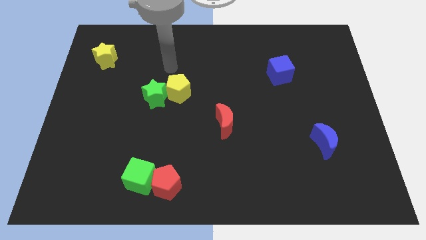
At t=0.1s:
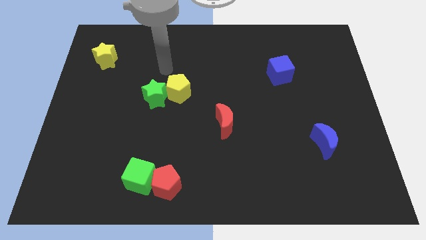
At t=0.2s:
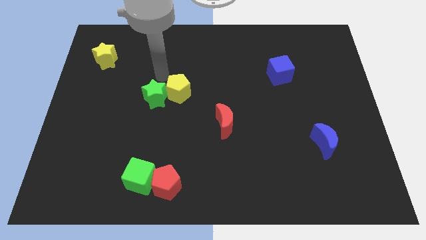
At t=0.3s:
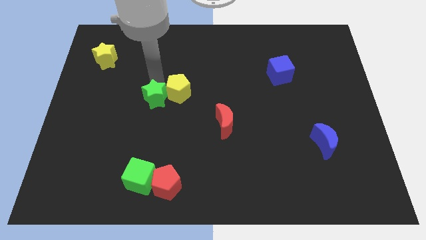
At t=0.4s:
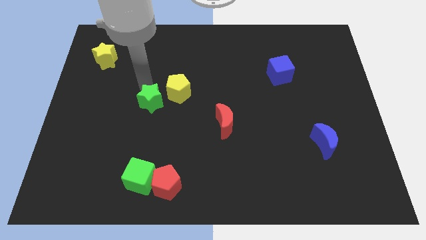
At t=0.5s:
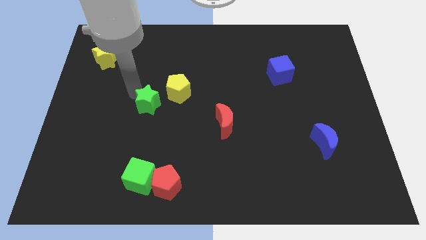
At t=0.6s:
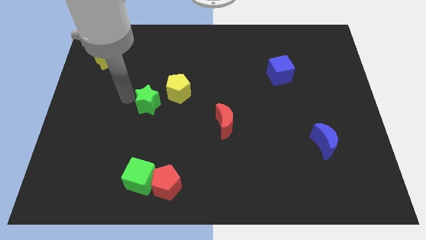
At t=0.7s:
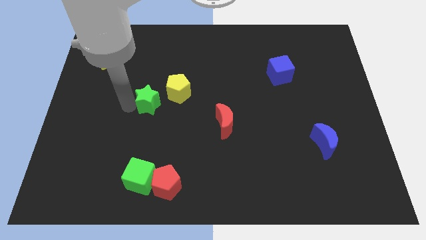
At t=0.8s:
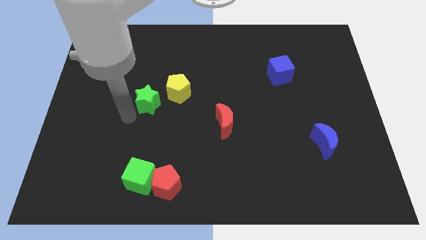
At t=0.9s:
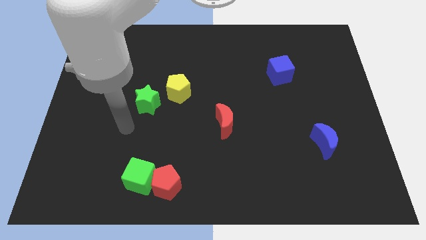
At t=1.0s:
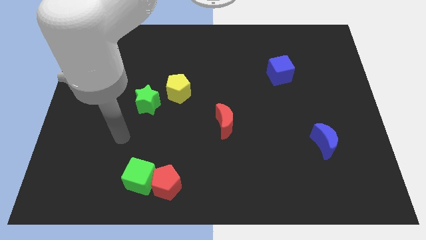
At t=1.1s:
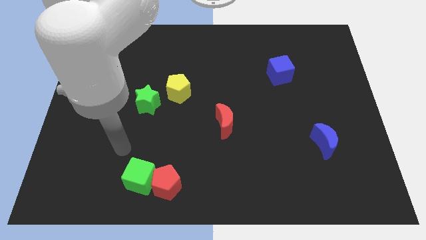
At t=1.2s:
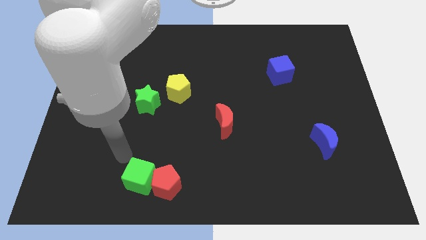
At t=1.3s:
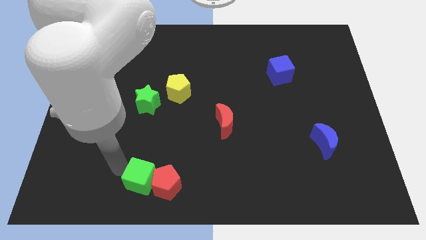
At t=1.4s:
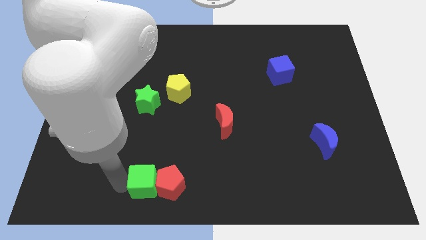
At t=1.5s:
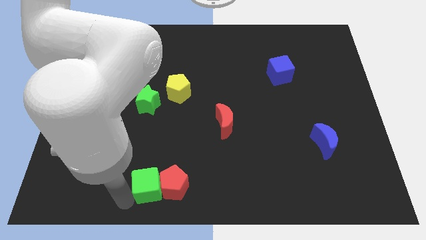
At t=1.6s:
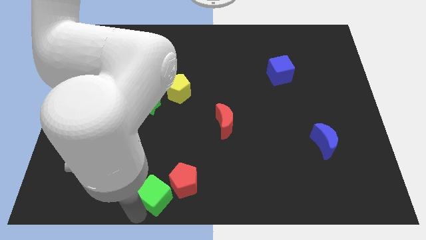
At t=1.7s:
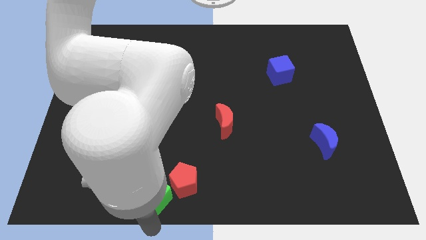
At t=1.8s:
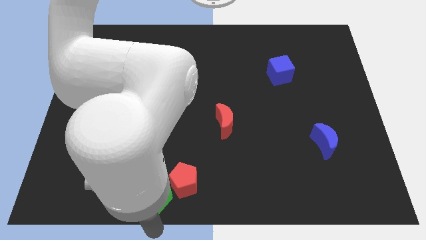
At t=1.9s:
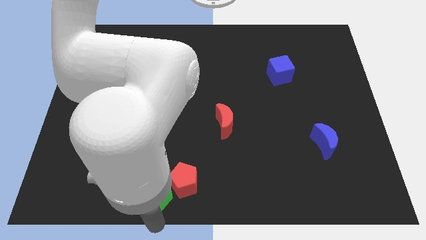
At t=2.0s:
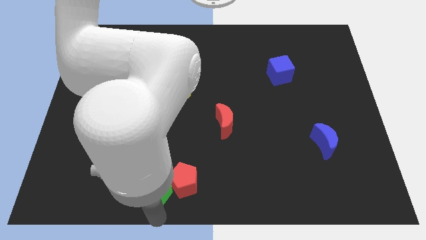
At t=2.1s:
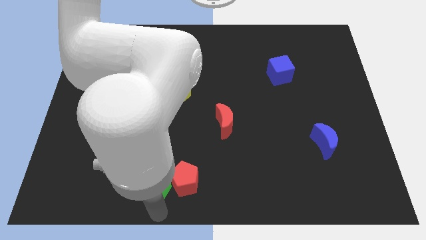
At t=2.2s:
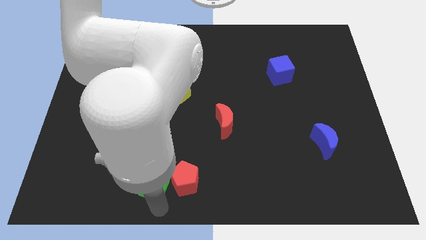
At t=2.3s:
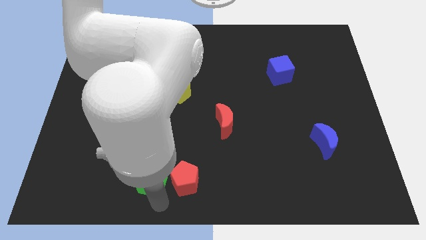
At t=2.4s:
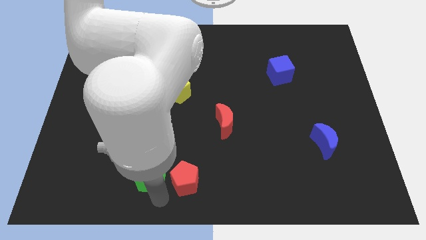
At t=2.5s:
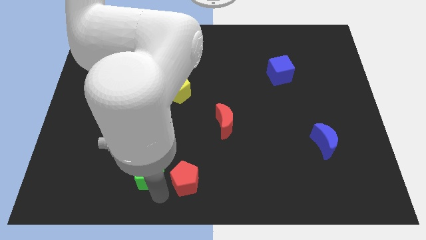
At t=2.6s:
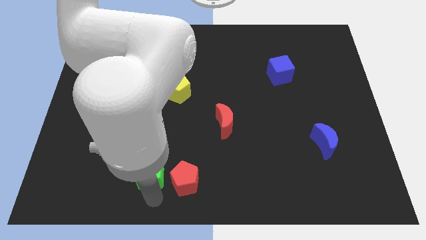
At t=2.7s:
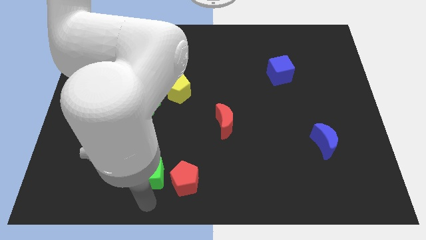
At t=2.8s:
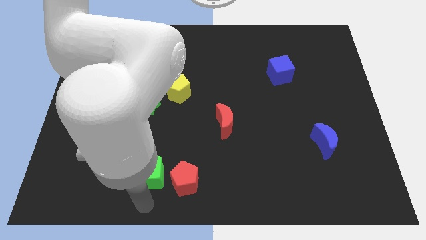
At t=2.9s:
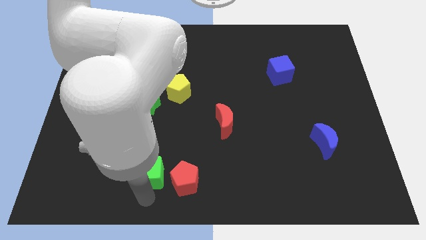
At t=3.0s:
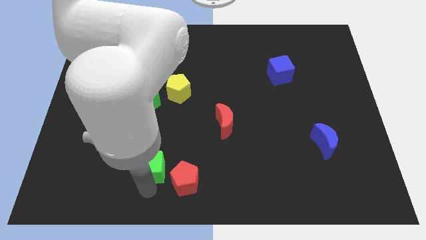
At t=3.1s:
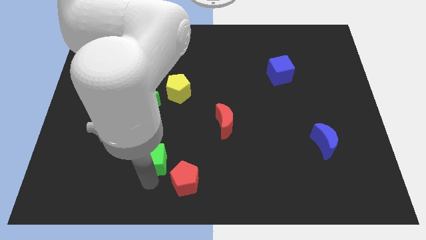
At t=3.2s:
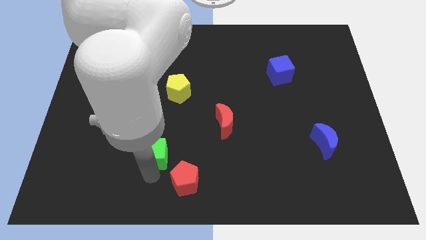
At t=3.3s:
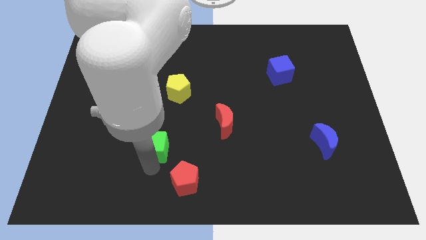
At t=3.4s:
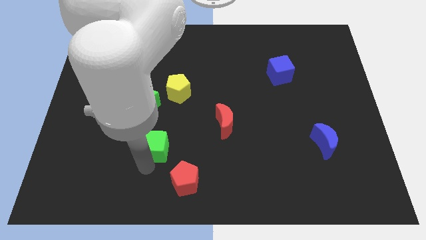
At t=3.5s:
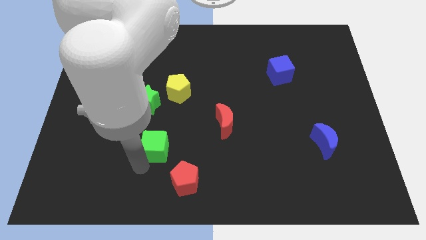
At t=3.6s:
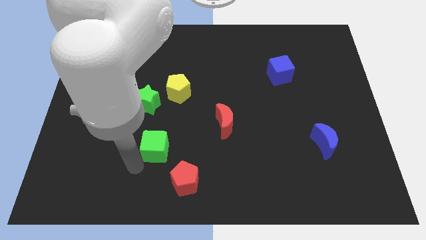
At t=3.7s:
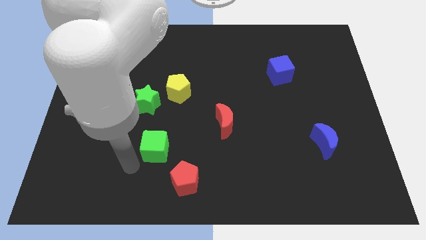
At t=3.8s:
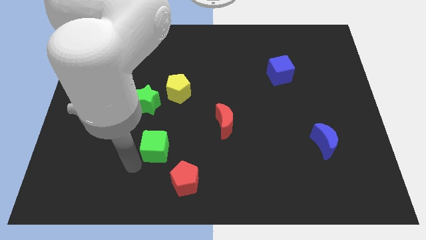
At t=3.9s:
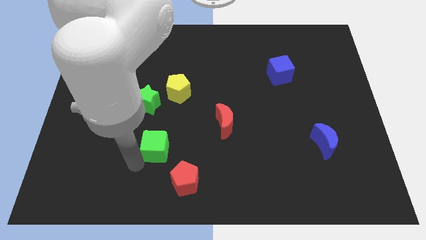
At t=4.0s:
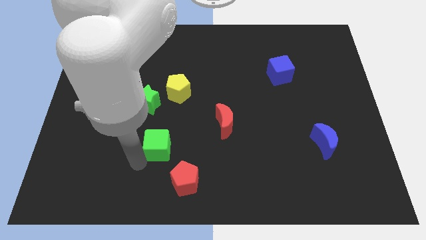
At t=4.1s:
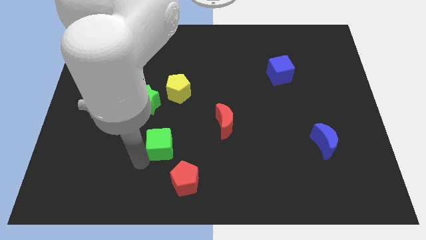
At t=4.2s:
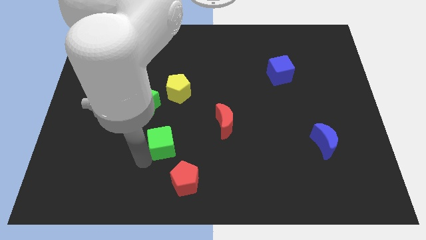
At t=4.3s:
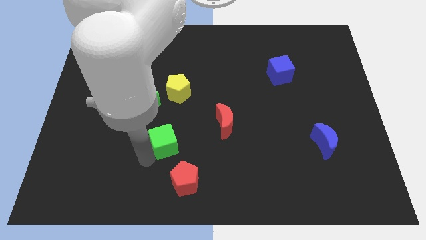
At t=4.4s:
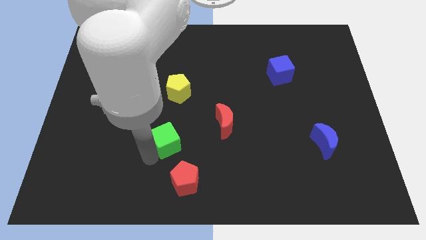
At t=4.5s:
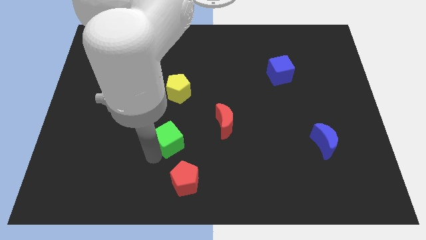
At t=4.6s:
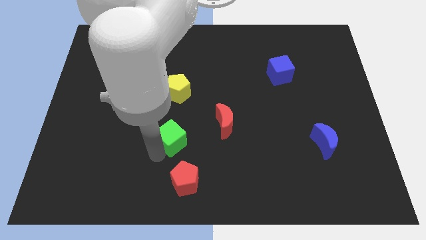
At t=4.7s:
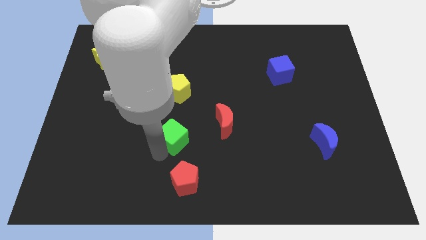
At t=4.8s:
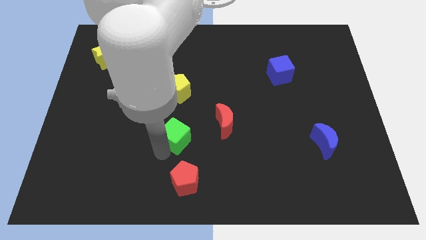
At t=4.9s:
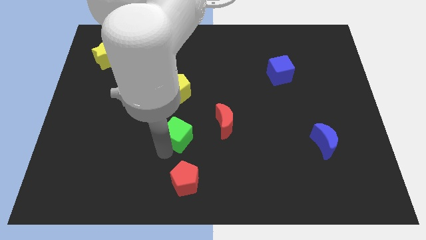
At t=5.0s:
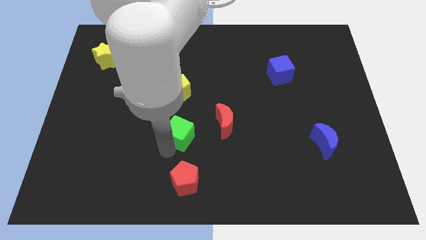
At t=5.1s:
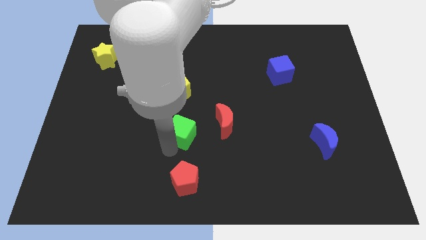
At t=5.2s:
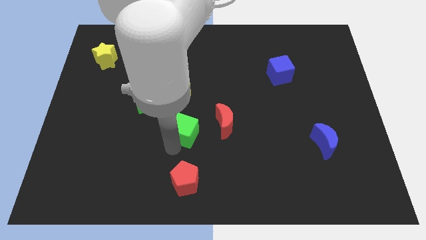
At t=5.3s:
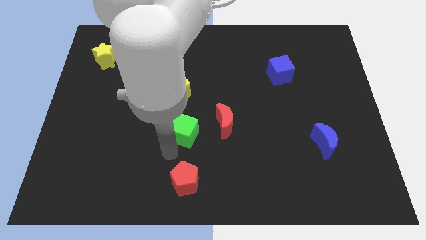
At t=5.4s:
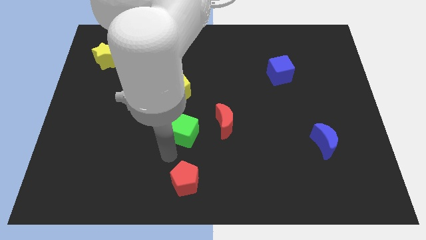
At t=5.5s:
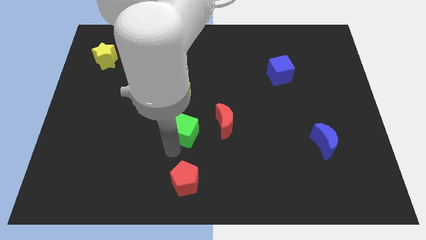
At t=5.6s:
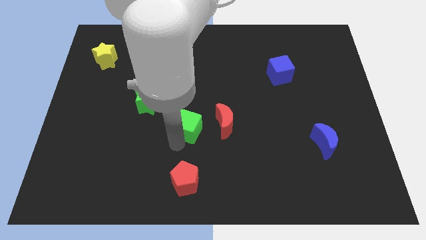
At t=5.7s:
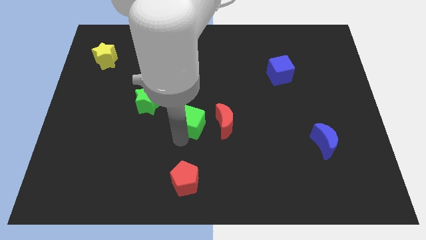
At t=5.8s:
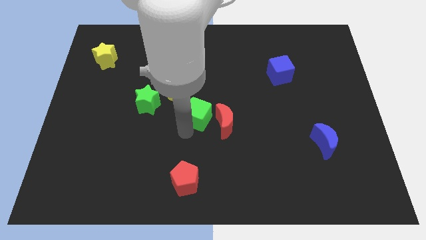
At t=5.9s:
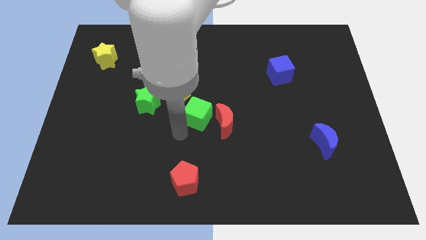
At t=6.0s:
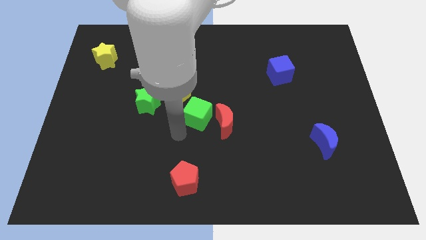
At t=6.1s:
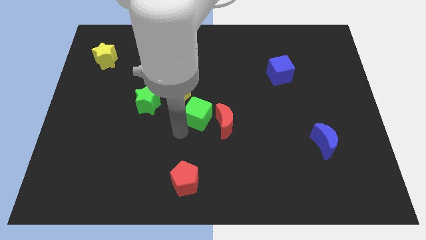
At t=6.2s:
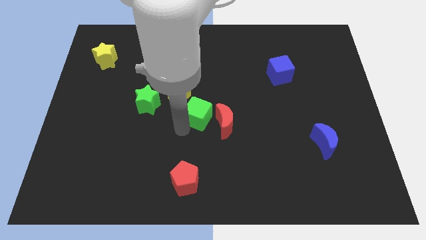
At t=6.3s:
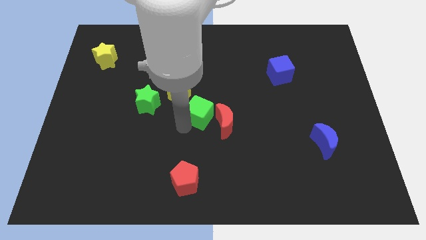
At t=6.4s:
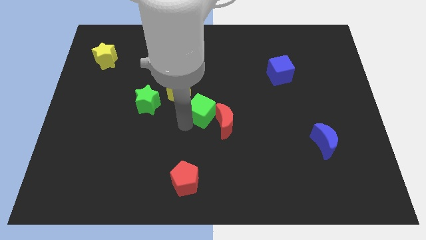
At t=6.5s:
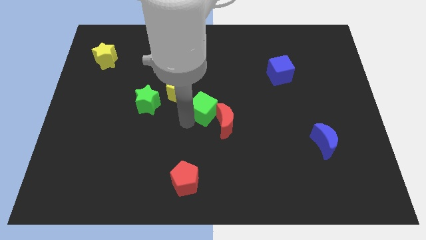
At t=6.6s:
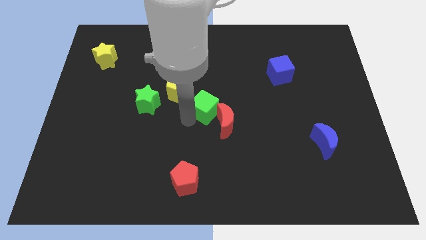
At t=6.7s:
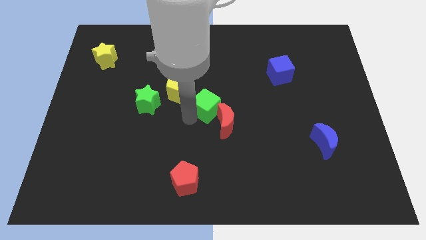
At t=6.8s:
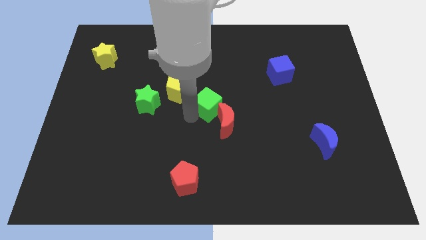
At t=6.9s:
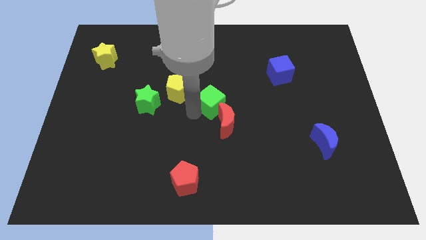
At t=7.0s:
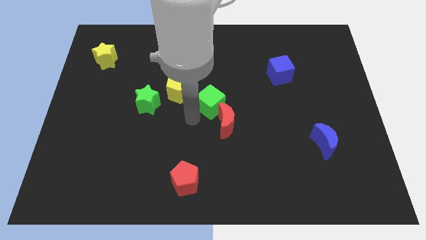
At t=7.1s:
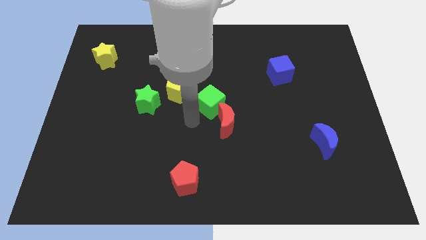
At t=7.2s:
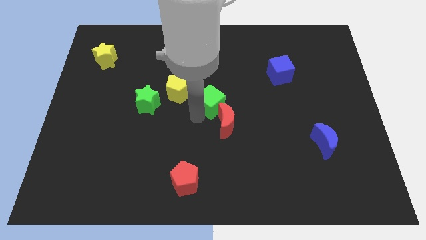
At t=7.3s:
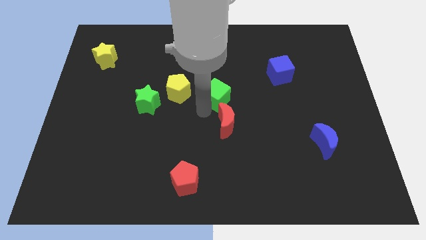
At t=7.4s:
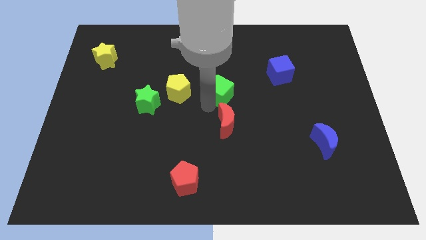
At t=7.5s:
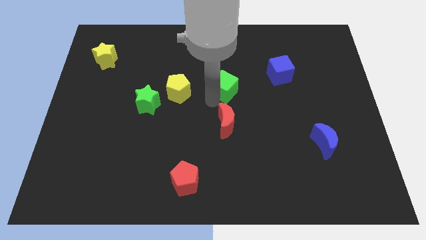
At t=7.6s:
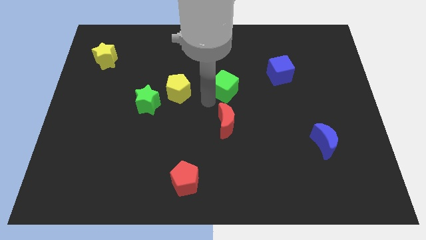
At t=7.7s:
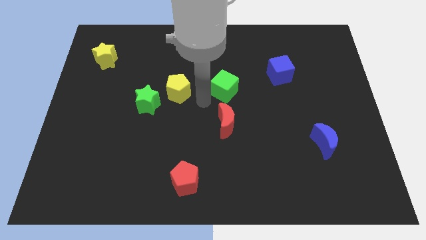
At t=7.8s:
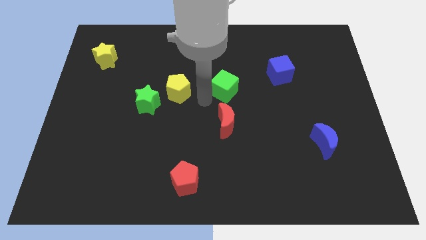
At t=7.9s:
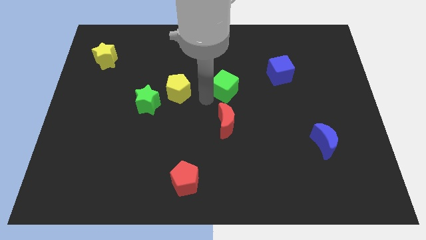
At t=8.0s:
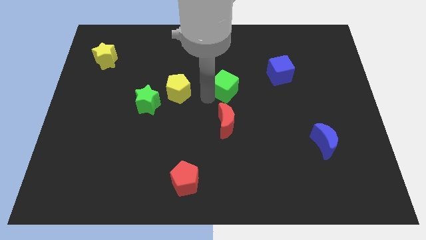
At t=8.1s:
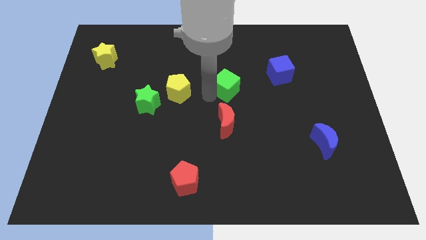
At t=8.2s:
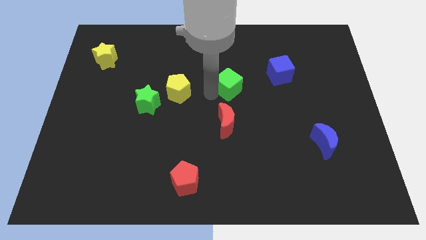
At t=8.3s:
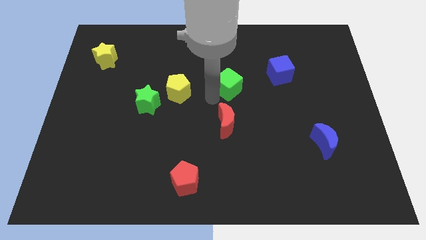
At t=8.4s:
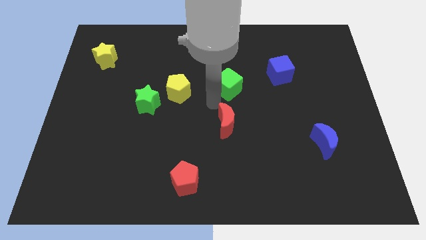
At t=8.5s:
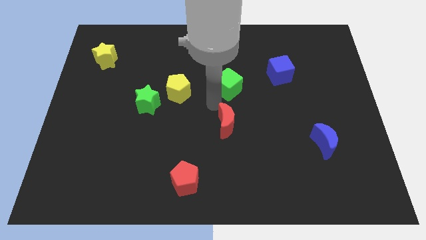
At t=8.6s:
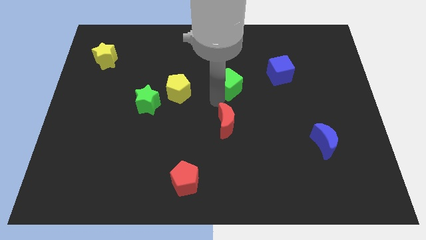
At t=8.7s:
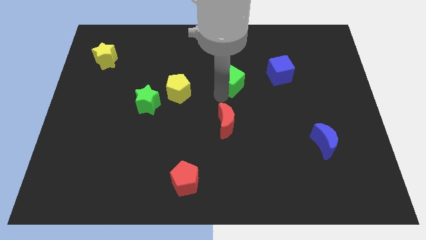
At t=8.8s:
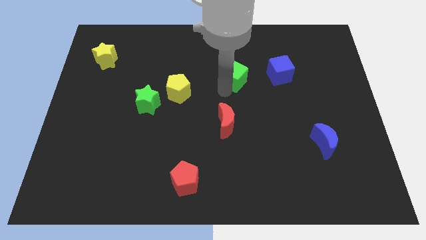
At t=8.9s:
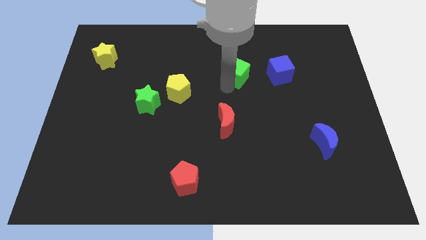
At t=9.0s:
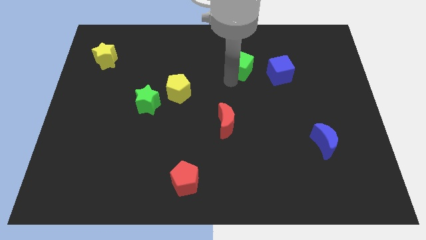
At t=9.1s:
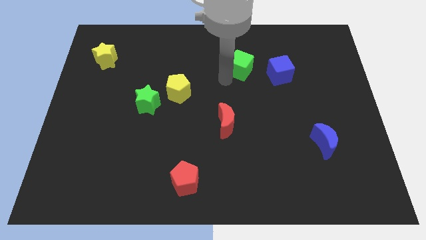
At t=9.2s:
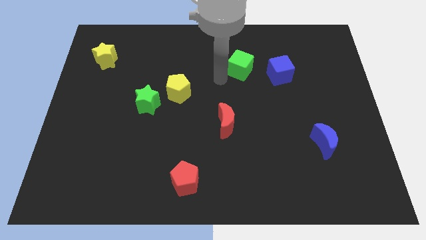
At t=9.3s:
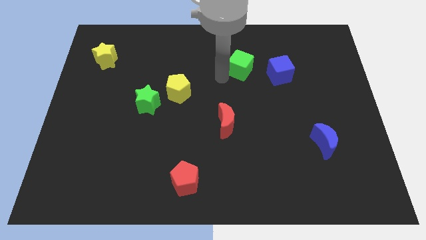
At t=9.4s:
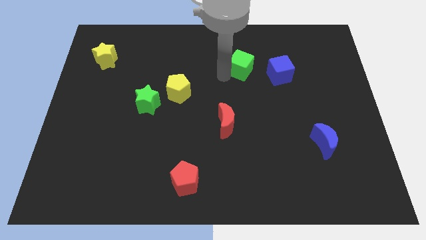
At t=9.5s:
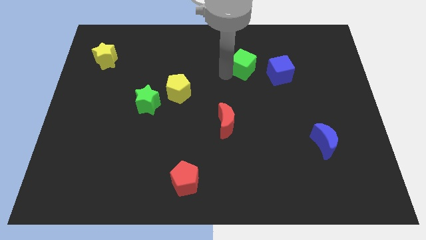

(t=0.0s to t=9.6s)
slide the green cube diagonally up and to the left of the blue cube
